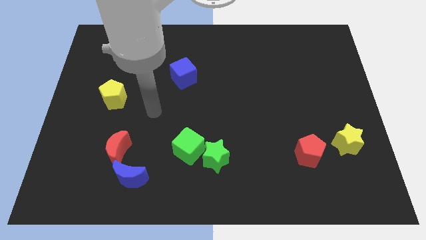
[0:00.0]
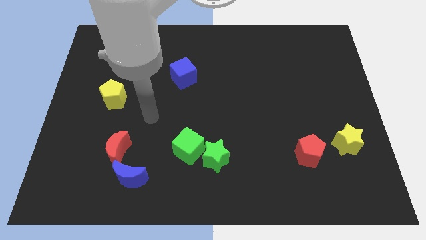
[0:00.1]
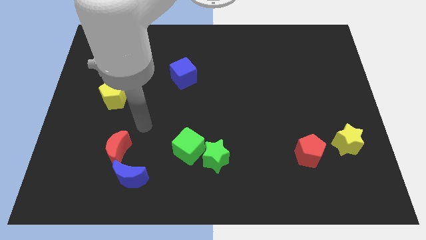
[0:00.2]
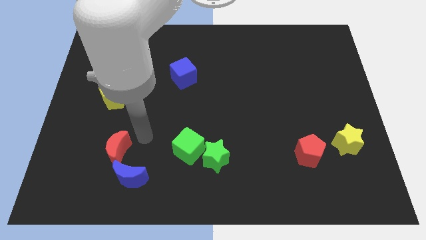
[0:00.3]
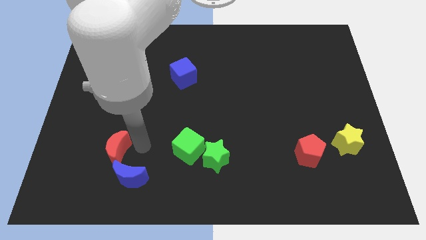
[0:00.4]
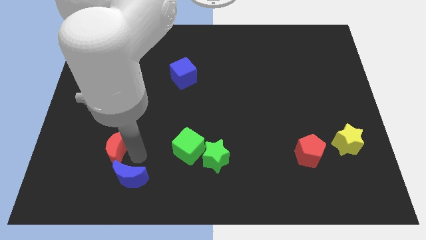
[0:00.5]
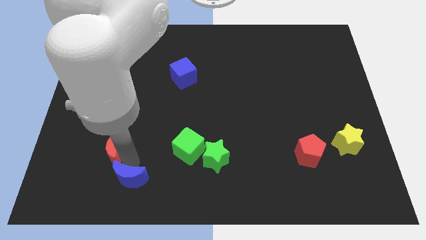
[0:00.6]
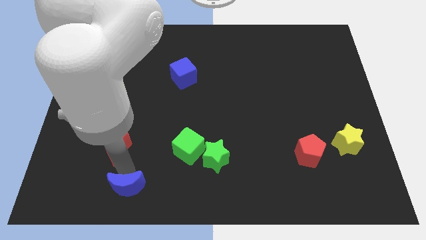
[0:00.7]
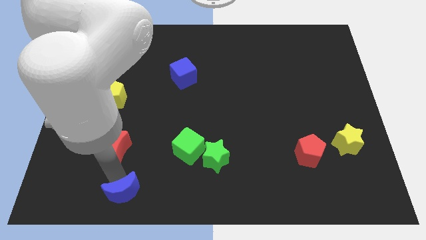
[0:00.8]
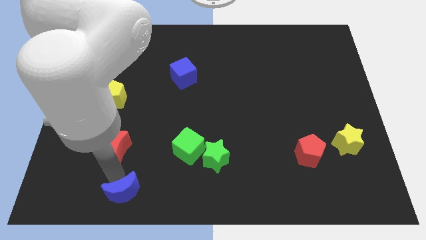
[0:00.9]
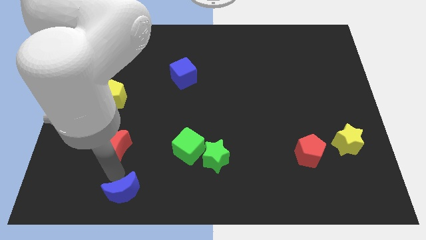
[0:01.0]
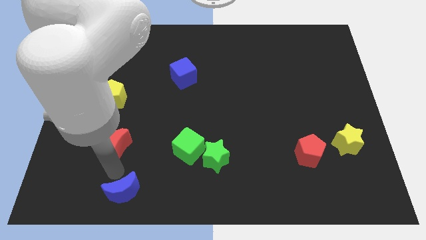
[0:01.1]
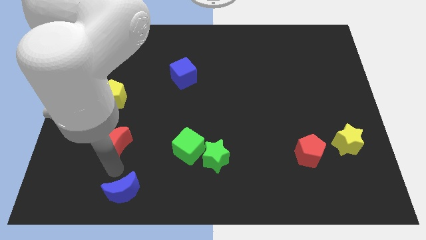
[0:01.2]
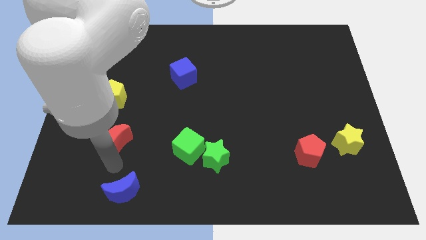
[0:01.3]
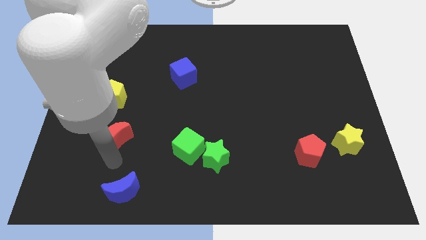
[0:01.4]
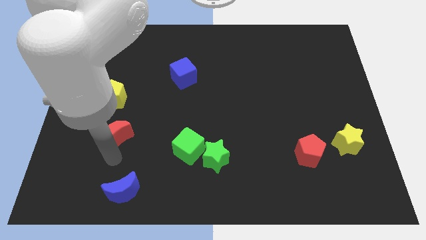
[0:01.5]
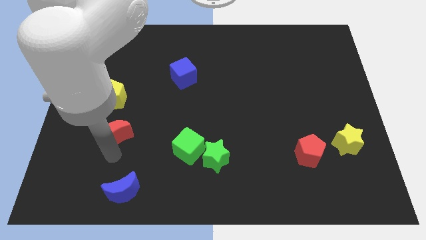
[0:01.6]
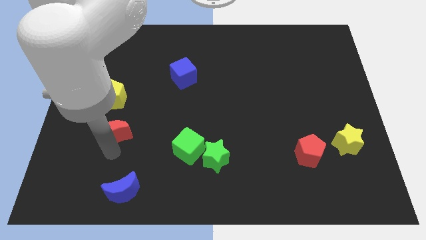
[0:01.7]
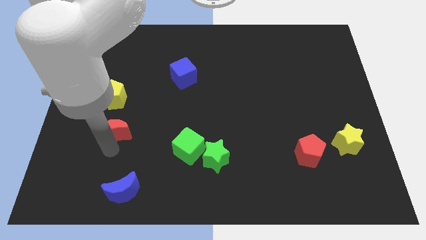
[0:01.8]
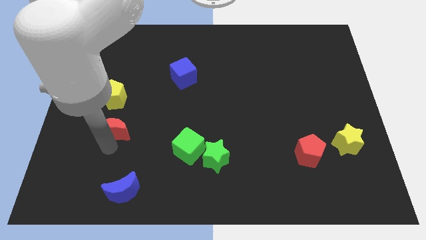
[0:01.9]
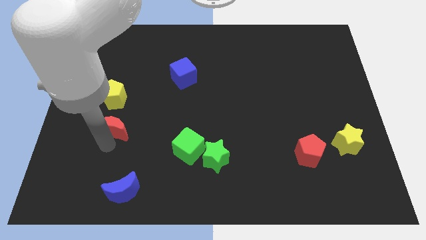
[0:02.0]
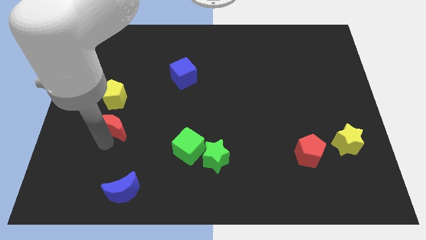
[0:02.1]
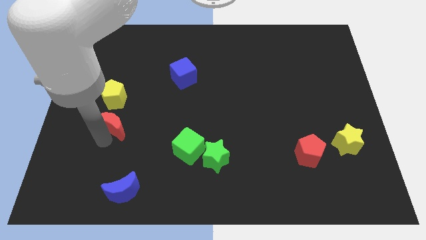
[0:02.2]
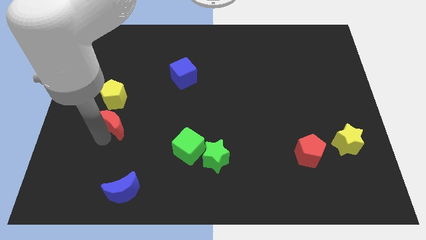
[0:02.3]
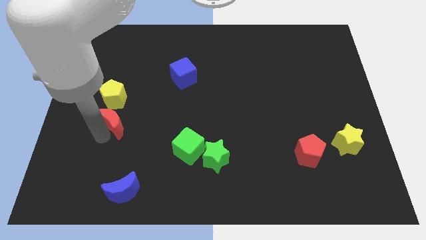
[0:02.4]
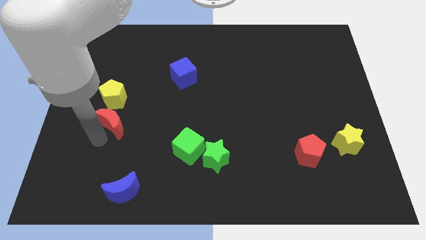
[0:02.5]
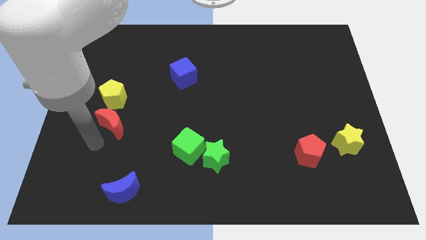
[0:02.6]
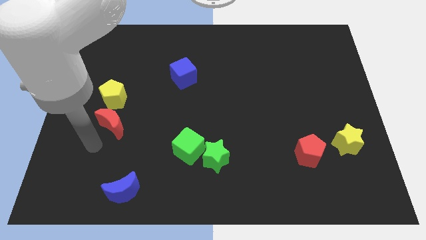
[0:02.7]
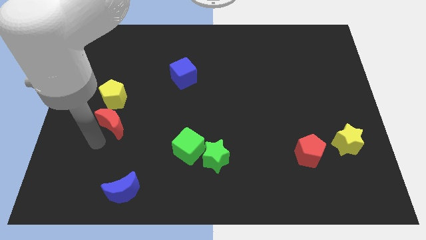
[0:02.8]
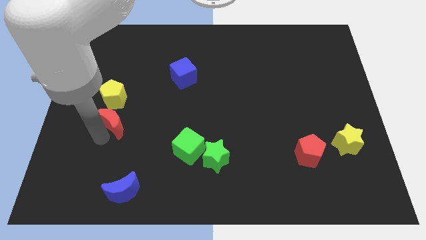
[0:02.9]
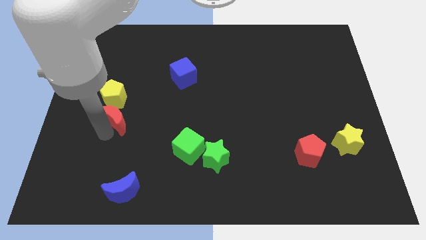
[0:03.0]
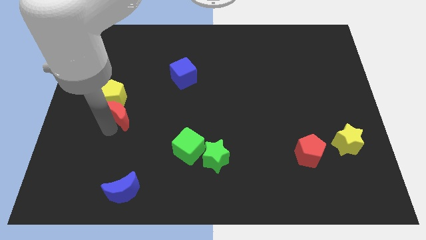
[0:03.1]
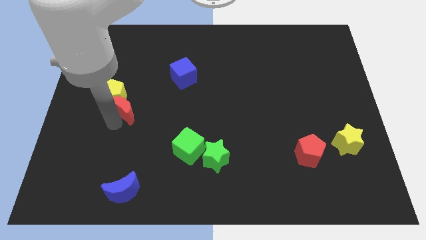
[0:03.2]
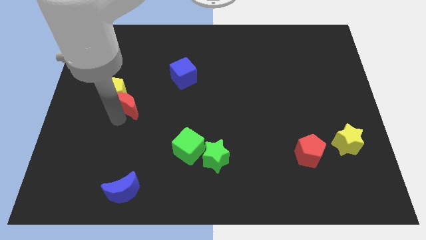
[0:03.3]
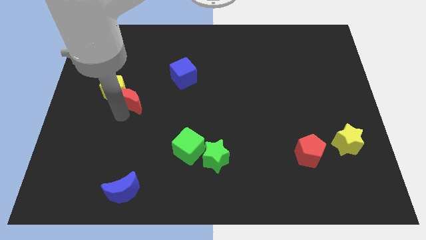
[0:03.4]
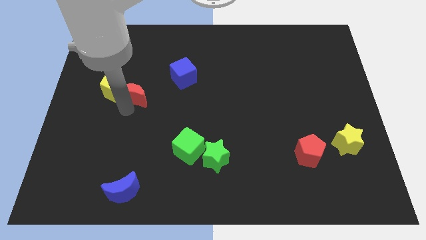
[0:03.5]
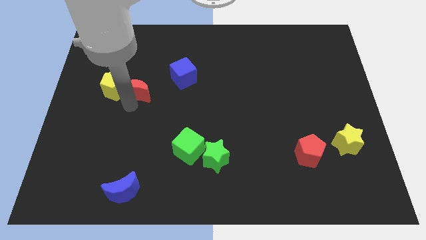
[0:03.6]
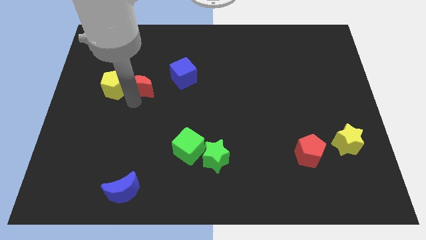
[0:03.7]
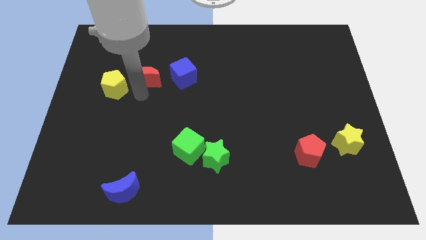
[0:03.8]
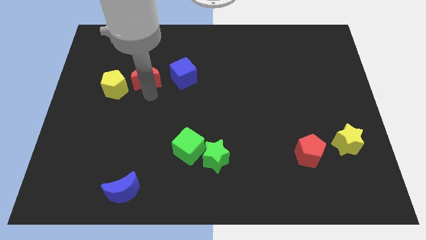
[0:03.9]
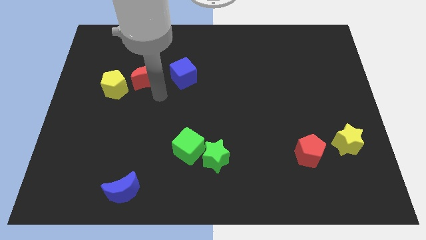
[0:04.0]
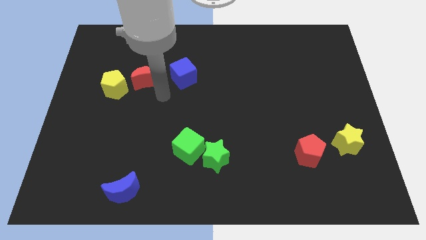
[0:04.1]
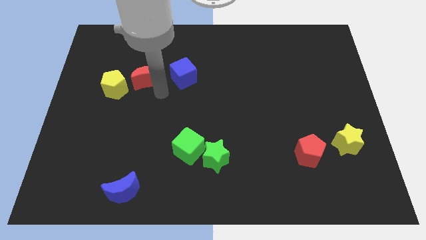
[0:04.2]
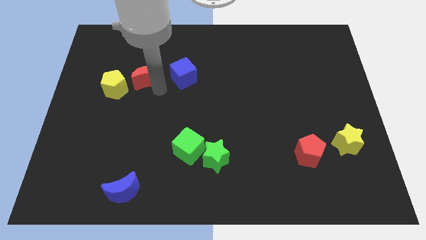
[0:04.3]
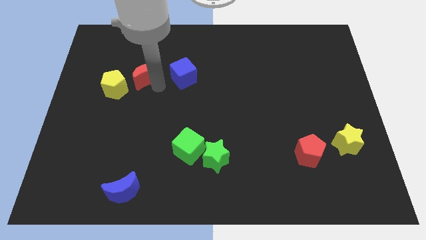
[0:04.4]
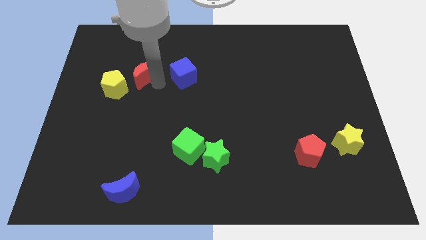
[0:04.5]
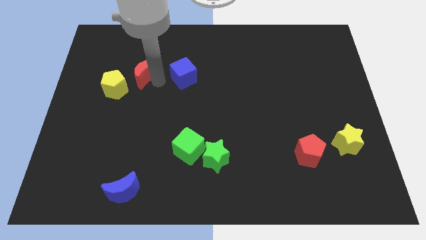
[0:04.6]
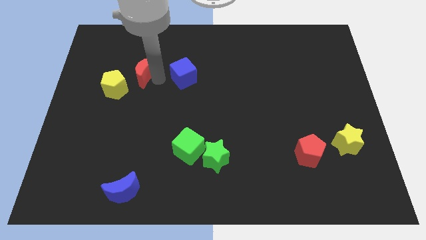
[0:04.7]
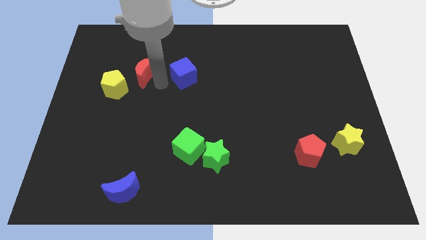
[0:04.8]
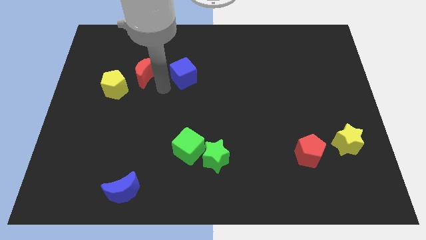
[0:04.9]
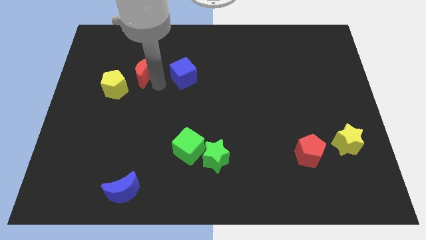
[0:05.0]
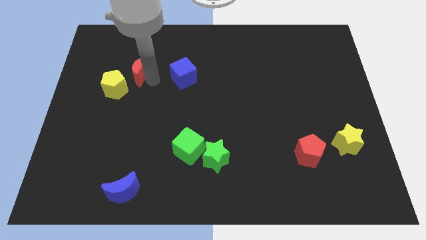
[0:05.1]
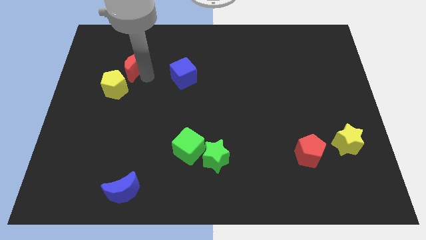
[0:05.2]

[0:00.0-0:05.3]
move the red moon to the top of the yellow pentagon

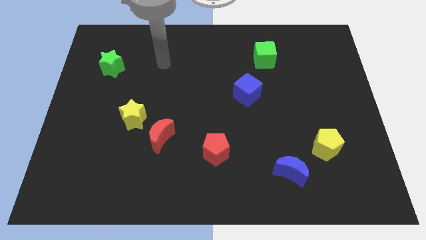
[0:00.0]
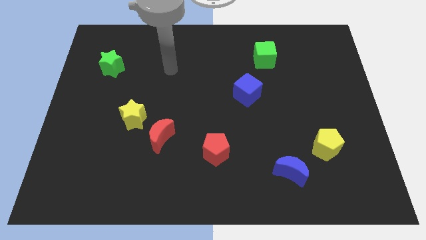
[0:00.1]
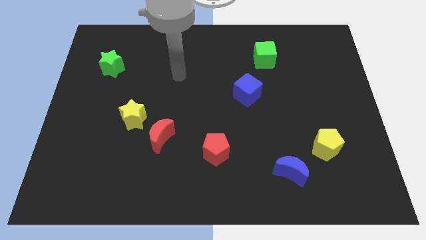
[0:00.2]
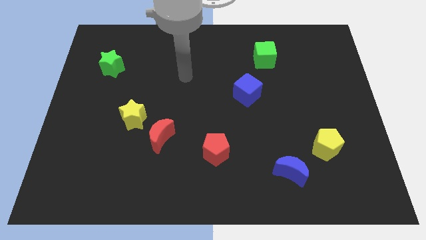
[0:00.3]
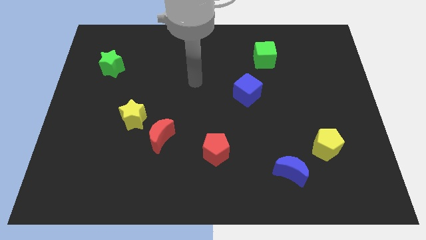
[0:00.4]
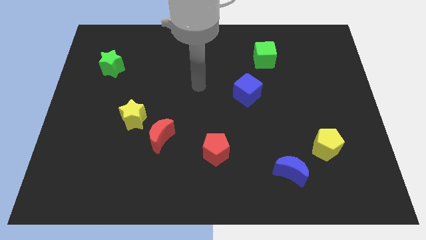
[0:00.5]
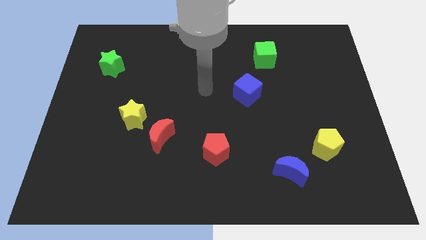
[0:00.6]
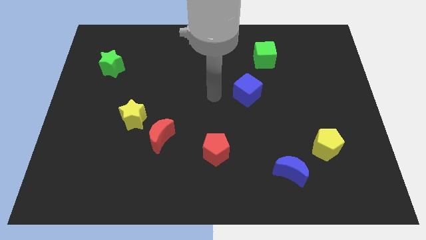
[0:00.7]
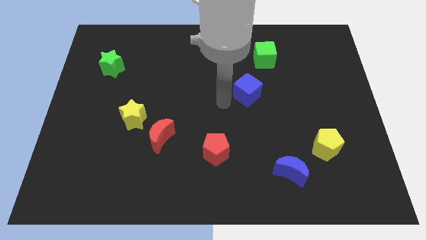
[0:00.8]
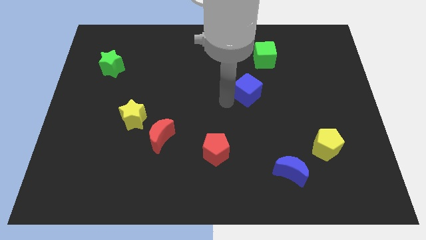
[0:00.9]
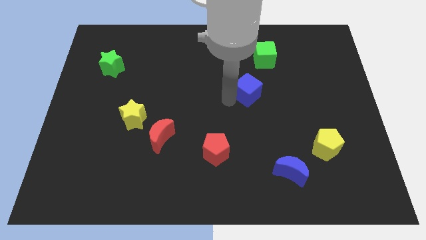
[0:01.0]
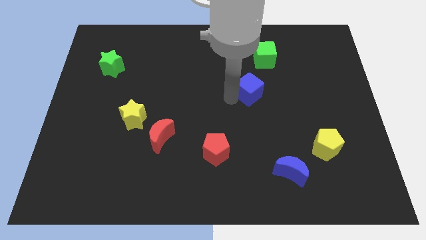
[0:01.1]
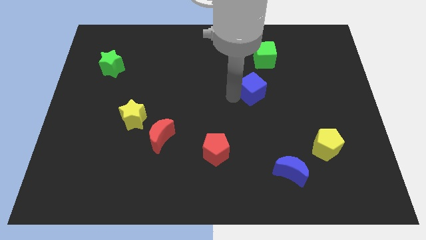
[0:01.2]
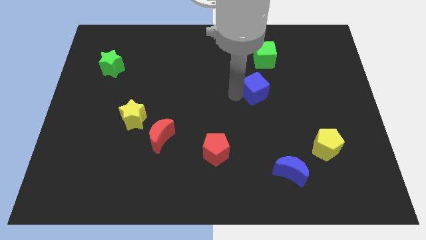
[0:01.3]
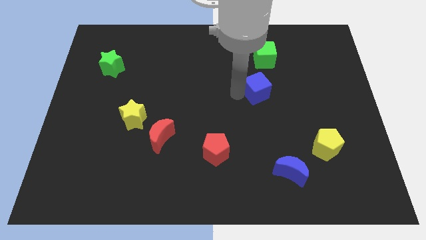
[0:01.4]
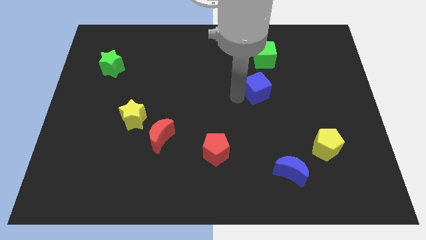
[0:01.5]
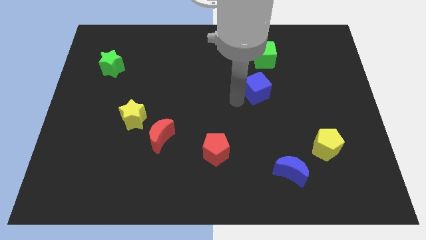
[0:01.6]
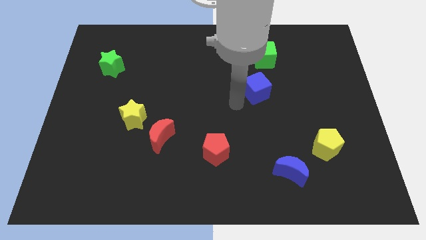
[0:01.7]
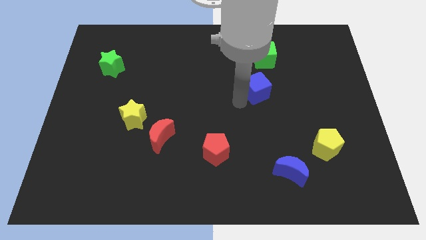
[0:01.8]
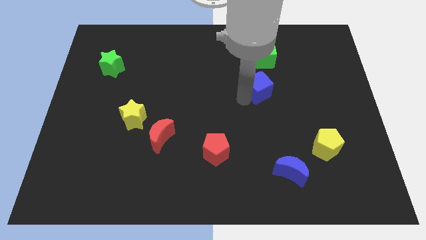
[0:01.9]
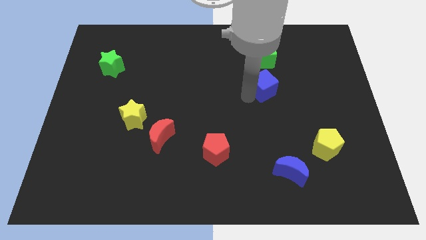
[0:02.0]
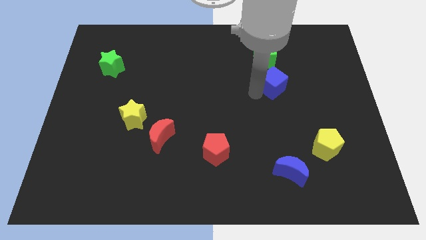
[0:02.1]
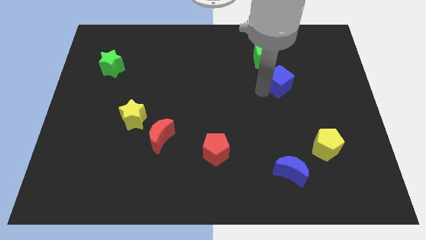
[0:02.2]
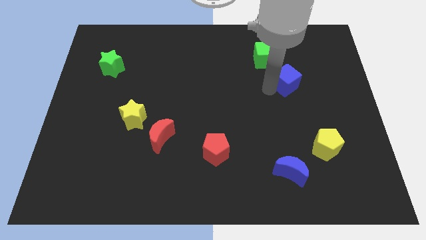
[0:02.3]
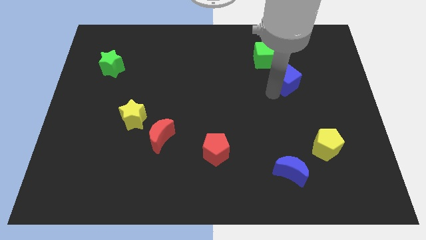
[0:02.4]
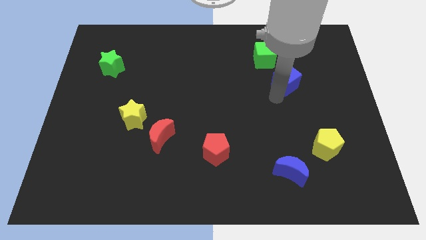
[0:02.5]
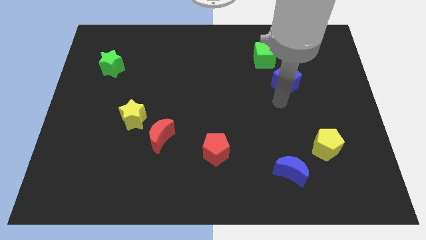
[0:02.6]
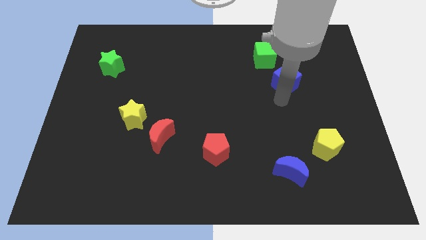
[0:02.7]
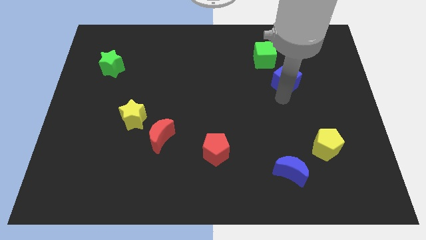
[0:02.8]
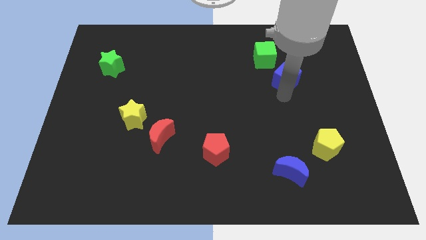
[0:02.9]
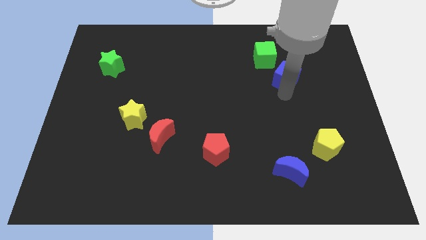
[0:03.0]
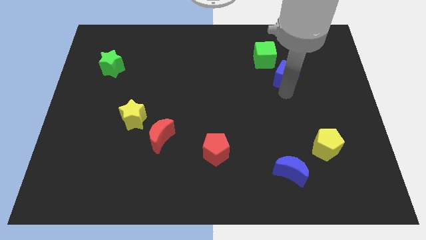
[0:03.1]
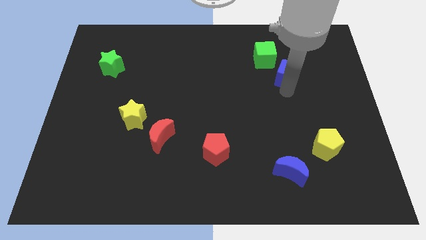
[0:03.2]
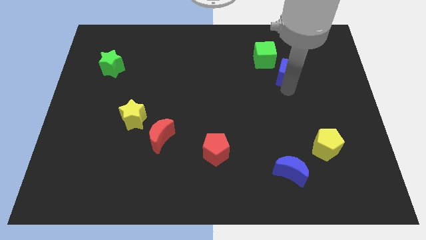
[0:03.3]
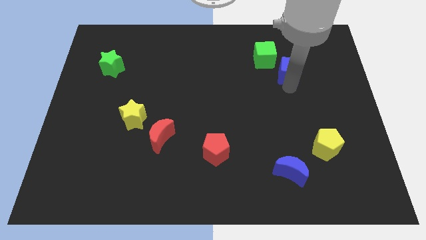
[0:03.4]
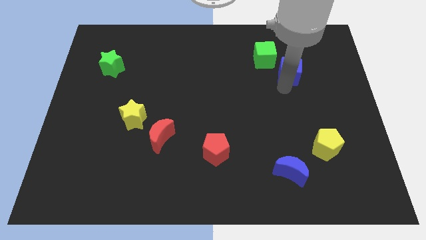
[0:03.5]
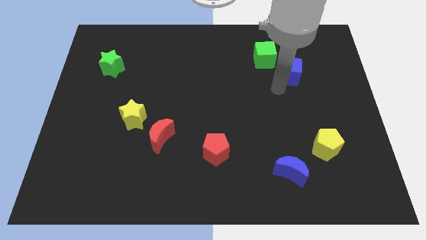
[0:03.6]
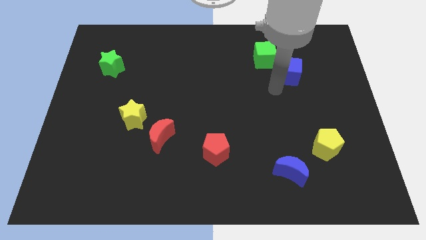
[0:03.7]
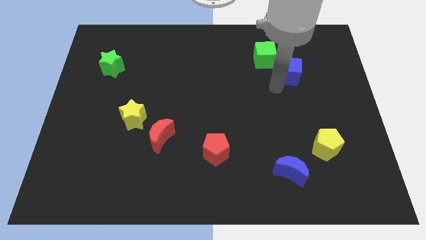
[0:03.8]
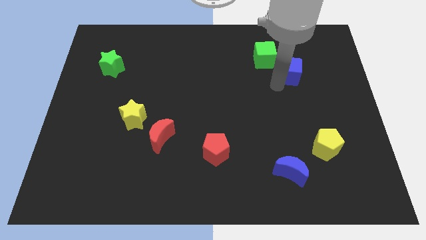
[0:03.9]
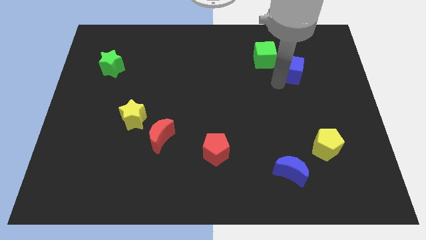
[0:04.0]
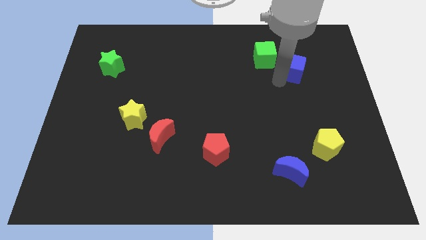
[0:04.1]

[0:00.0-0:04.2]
push the blue cube to the right side of the green cube
